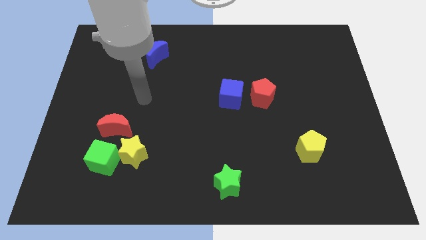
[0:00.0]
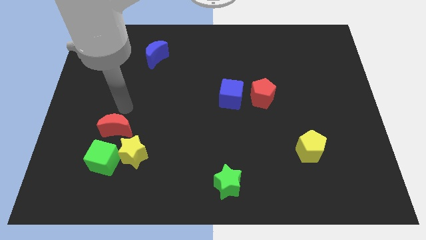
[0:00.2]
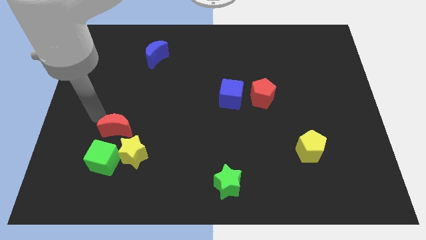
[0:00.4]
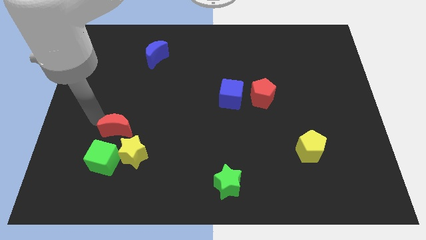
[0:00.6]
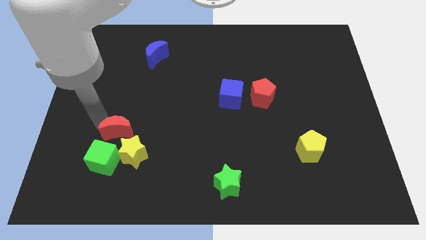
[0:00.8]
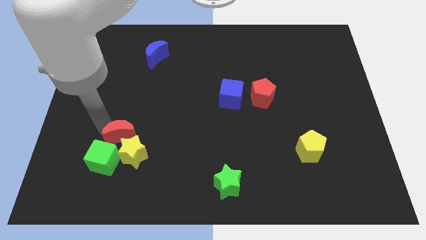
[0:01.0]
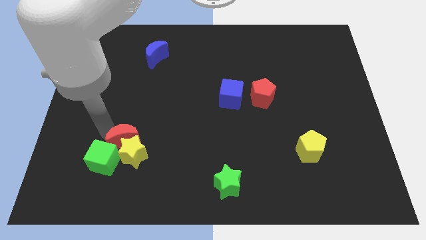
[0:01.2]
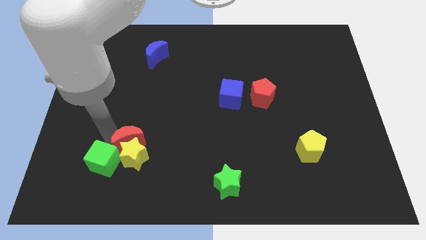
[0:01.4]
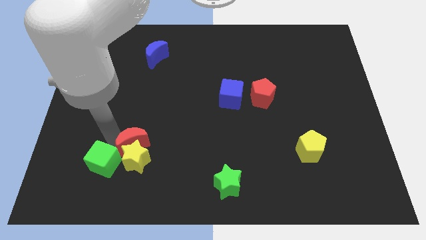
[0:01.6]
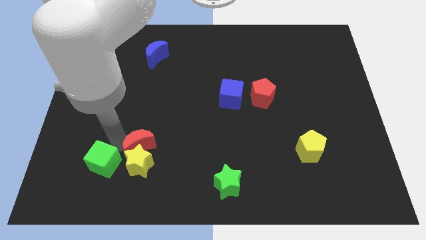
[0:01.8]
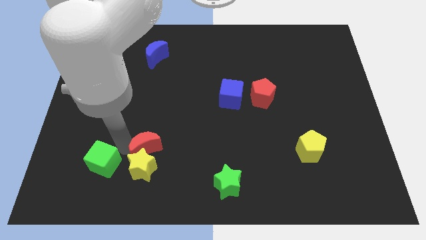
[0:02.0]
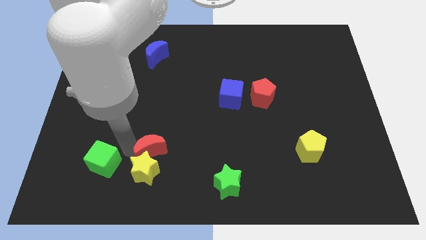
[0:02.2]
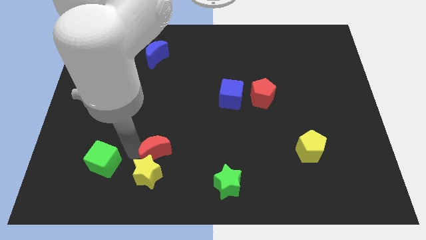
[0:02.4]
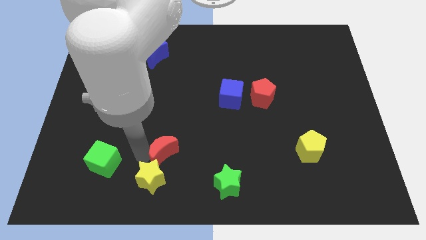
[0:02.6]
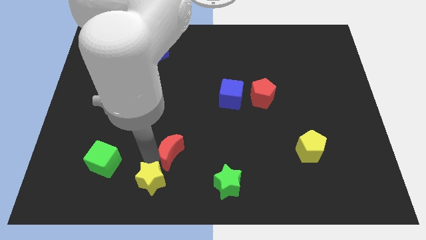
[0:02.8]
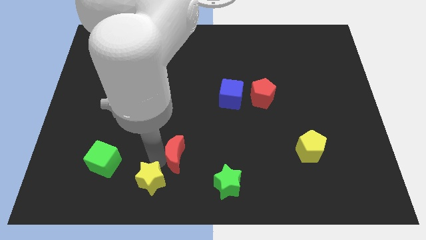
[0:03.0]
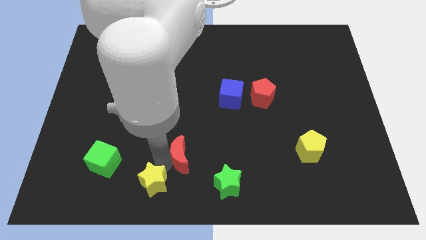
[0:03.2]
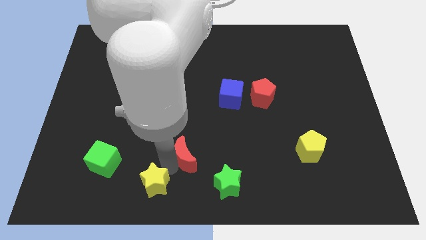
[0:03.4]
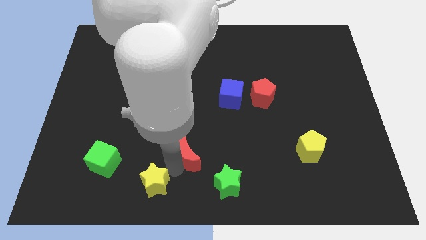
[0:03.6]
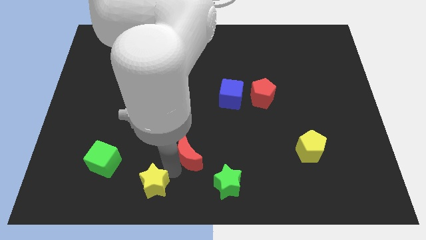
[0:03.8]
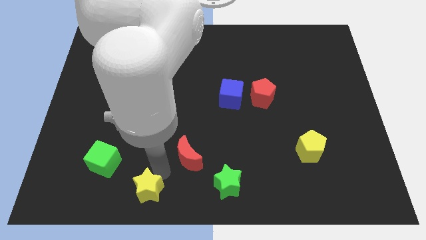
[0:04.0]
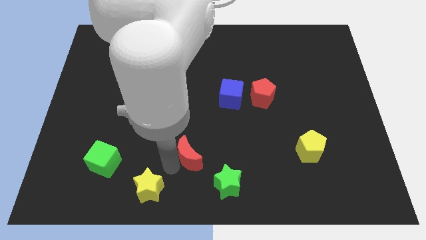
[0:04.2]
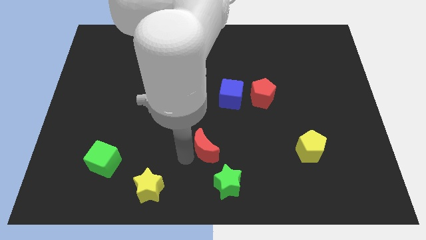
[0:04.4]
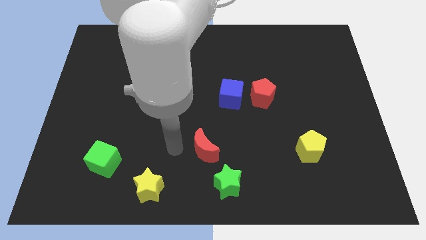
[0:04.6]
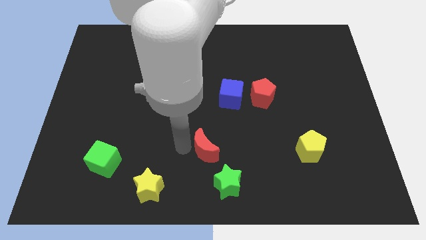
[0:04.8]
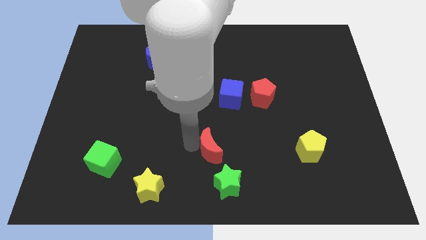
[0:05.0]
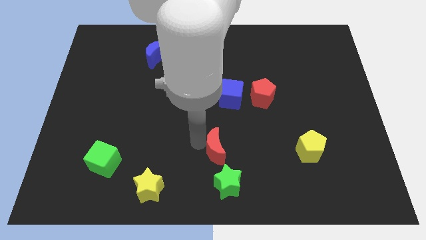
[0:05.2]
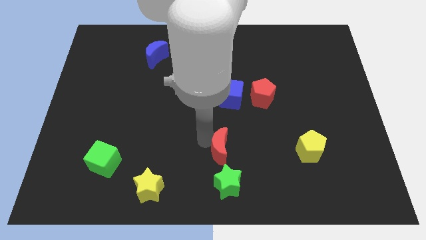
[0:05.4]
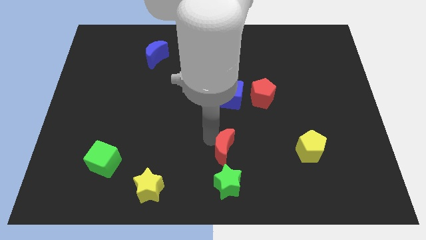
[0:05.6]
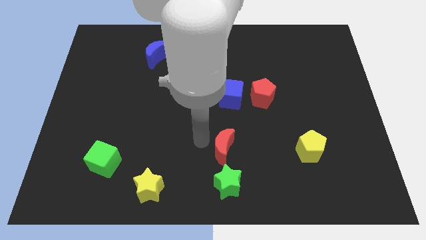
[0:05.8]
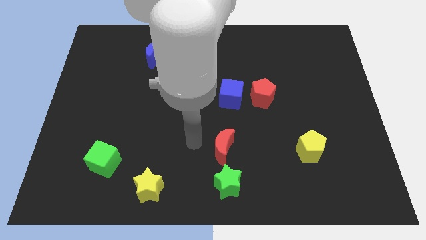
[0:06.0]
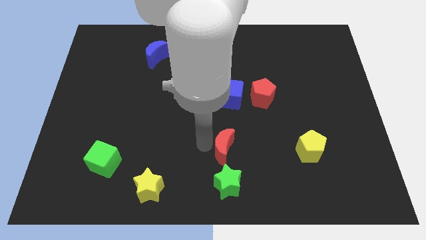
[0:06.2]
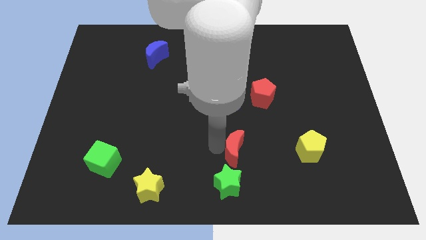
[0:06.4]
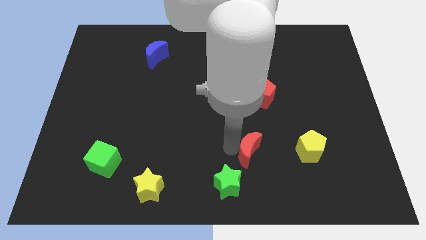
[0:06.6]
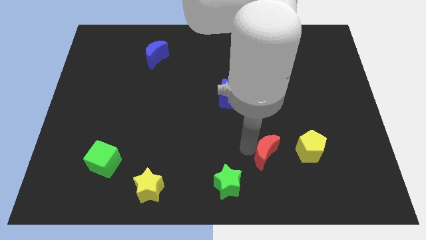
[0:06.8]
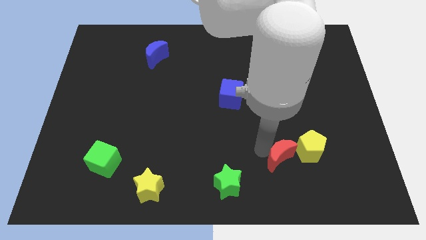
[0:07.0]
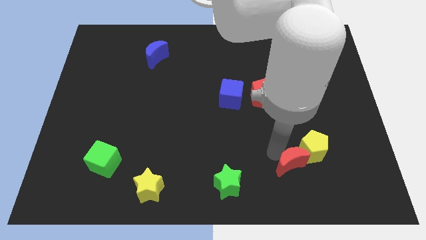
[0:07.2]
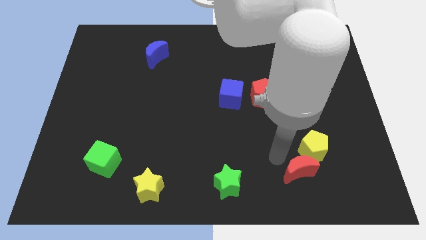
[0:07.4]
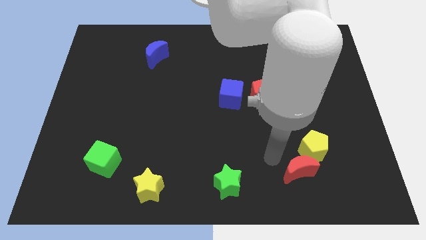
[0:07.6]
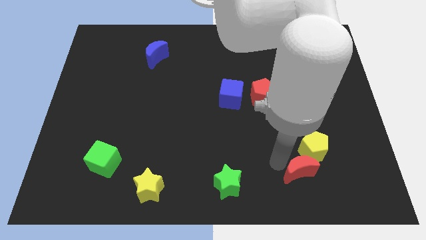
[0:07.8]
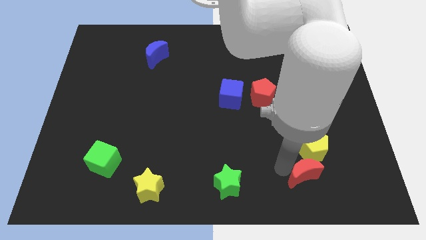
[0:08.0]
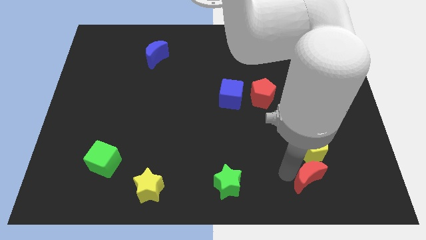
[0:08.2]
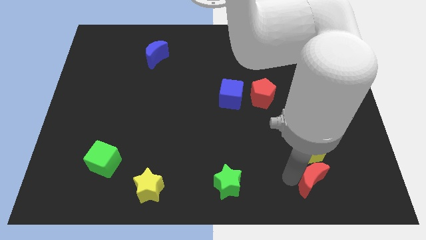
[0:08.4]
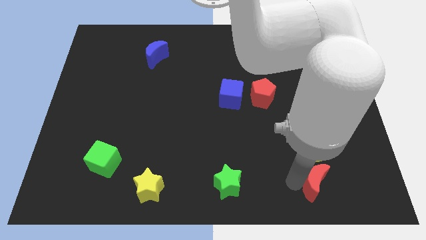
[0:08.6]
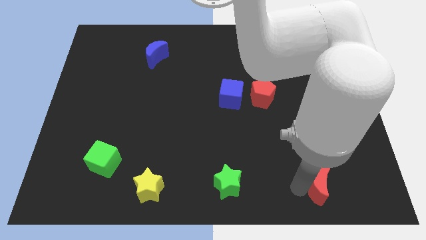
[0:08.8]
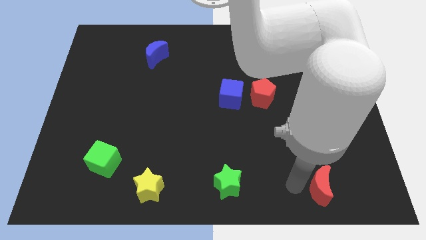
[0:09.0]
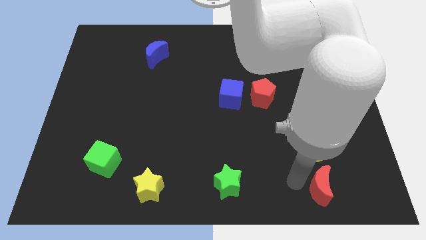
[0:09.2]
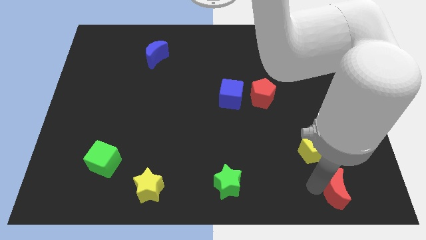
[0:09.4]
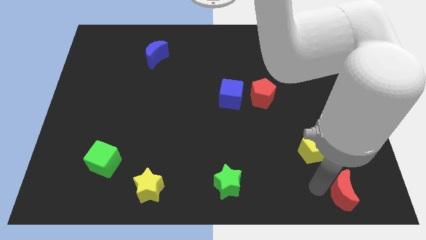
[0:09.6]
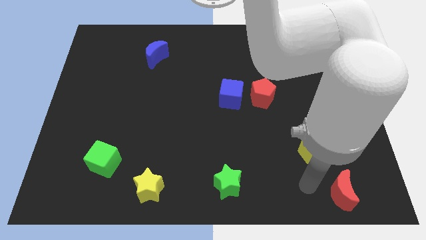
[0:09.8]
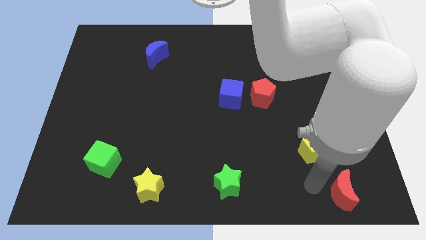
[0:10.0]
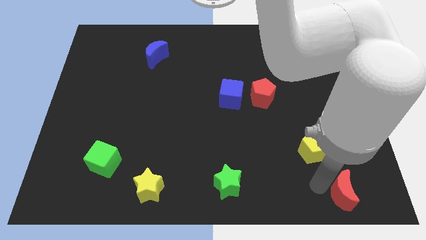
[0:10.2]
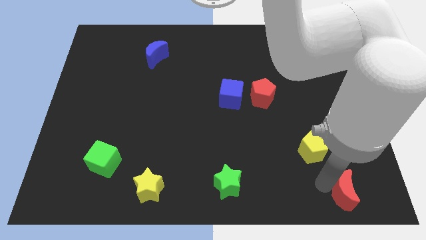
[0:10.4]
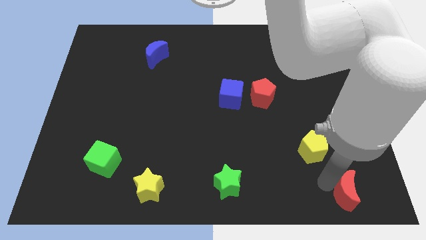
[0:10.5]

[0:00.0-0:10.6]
slide the red moon to the bottom right

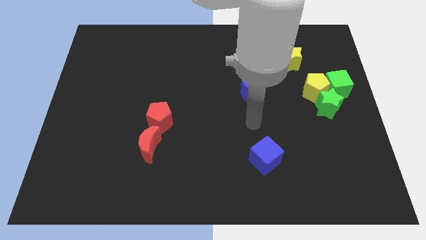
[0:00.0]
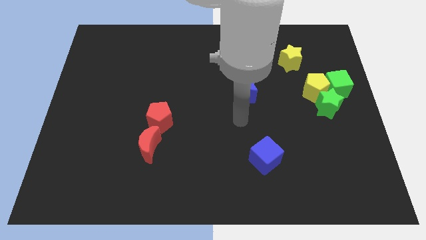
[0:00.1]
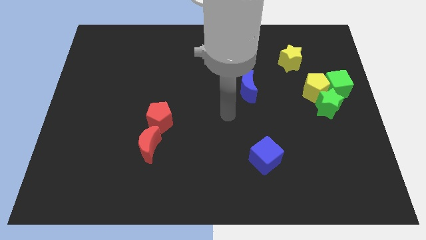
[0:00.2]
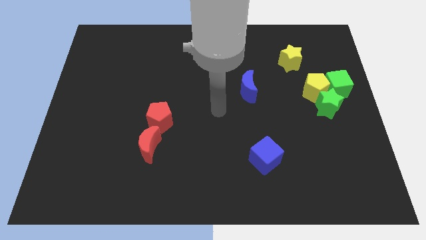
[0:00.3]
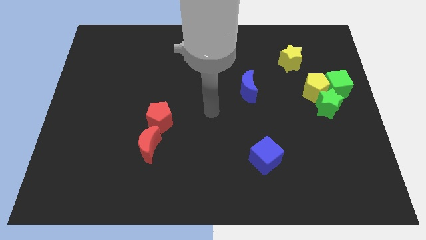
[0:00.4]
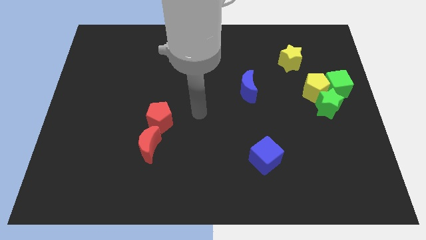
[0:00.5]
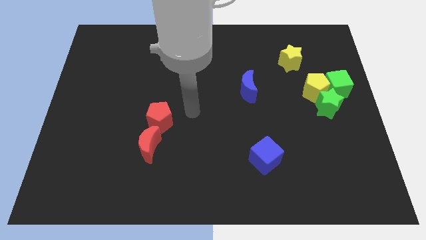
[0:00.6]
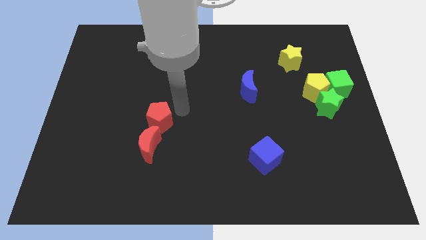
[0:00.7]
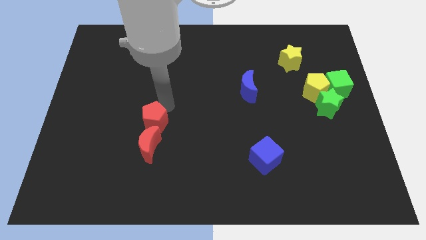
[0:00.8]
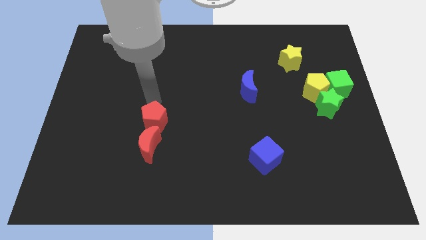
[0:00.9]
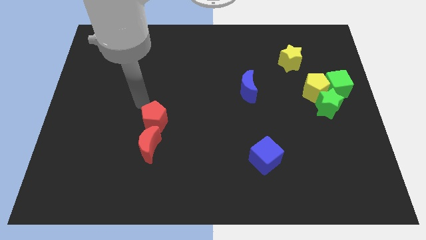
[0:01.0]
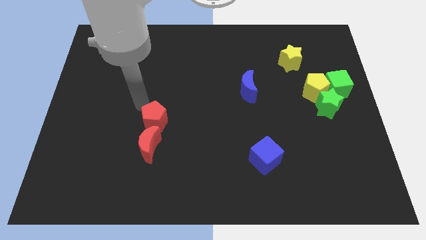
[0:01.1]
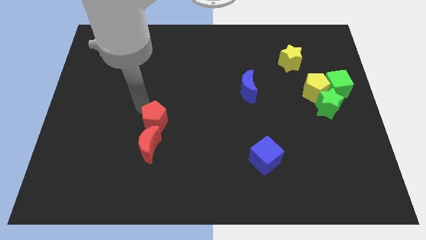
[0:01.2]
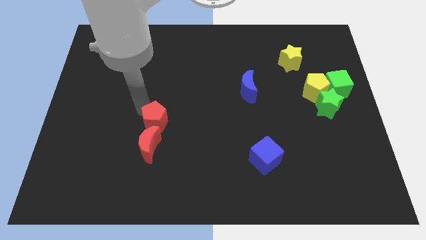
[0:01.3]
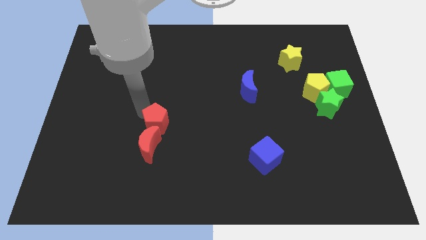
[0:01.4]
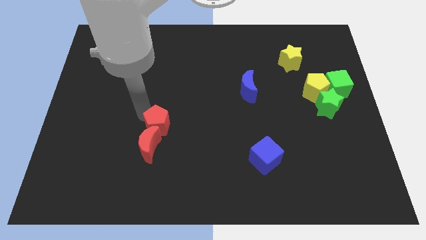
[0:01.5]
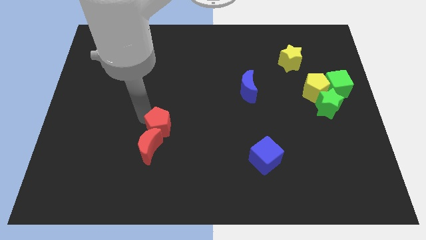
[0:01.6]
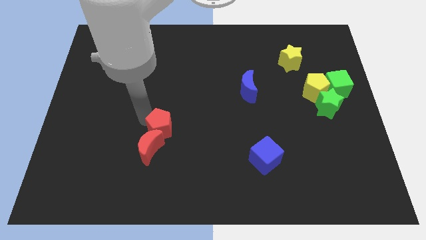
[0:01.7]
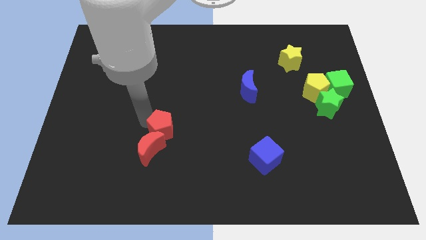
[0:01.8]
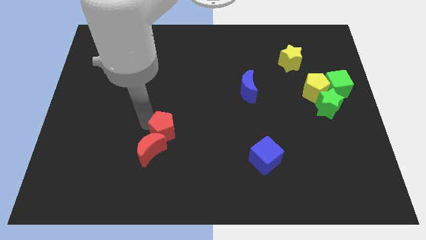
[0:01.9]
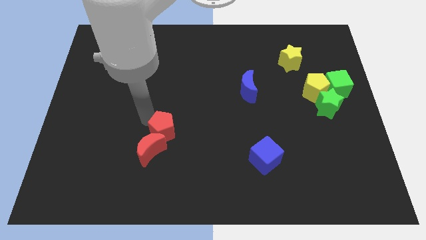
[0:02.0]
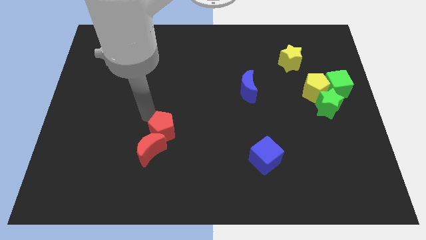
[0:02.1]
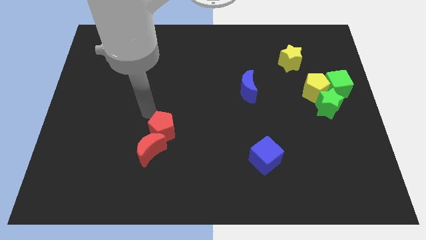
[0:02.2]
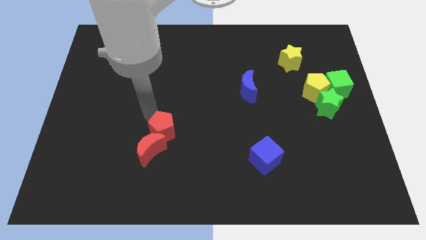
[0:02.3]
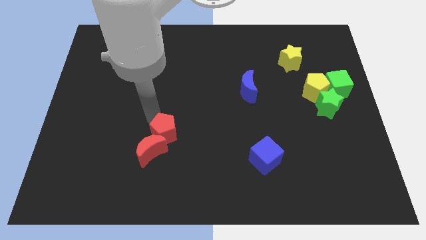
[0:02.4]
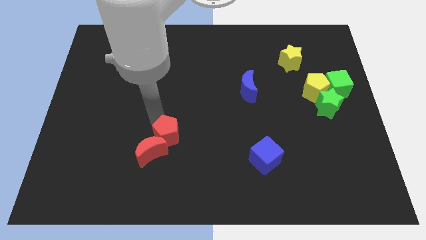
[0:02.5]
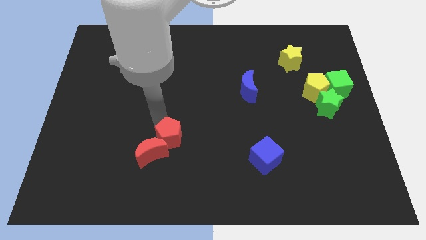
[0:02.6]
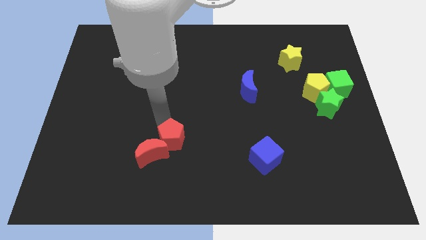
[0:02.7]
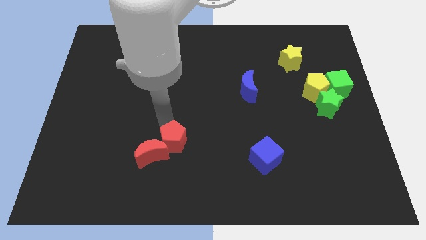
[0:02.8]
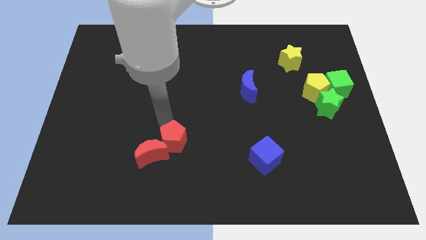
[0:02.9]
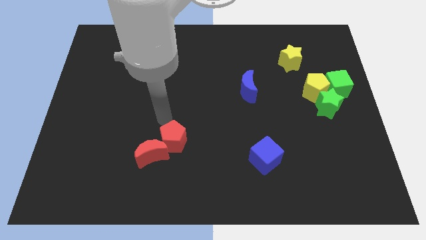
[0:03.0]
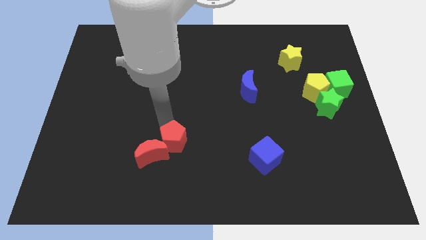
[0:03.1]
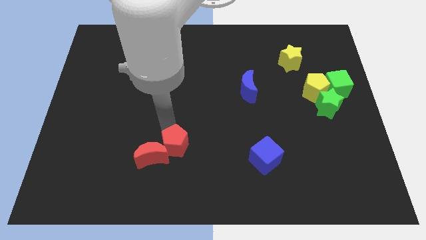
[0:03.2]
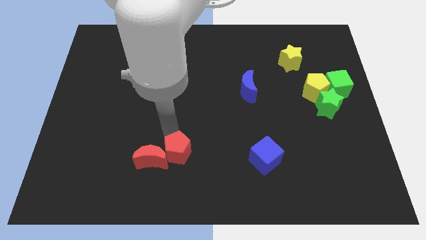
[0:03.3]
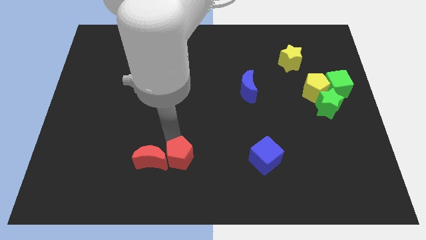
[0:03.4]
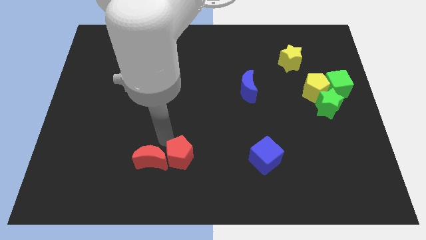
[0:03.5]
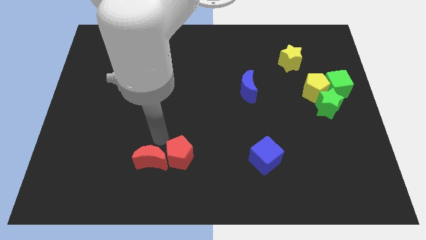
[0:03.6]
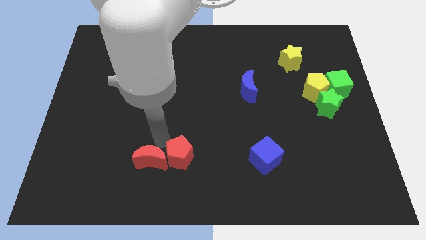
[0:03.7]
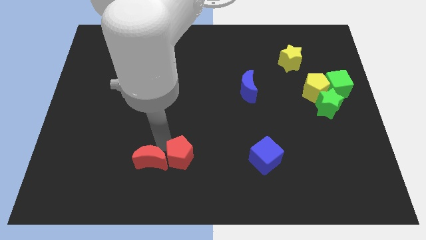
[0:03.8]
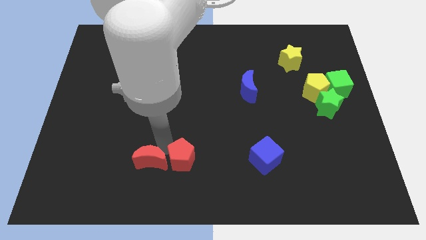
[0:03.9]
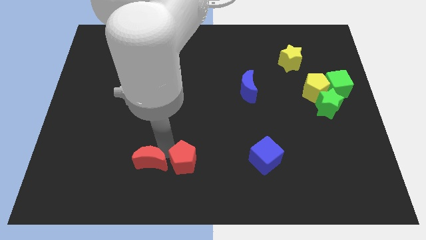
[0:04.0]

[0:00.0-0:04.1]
push the red pentagon to the bottom
